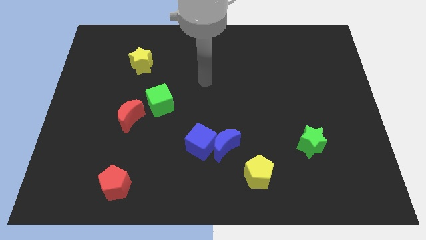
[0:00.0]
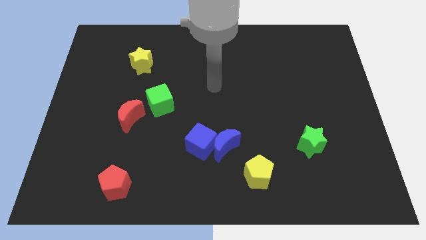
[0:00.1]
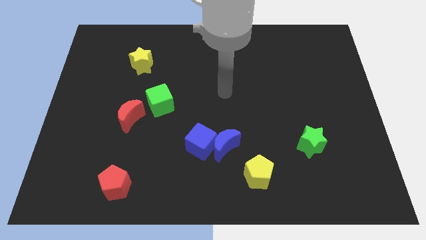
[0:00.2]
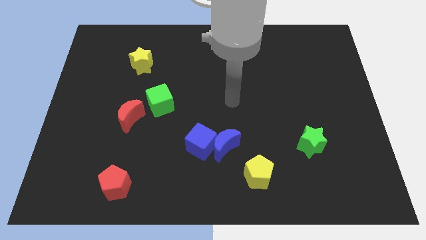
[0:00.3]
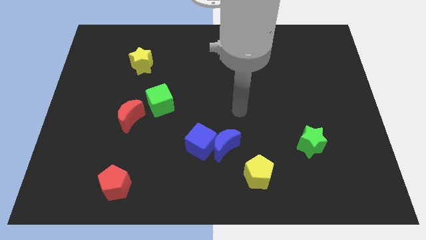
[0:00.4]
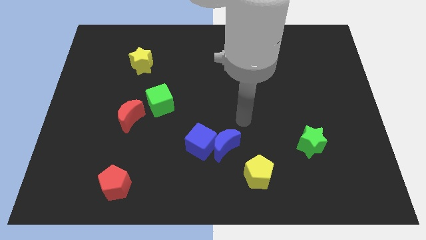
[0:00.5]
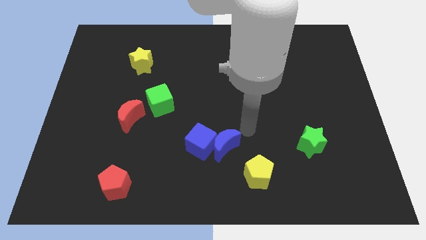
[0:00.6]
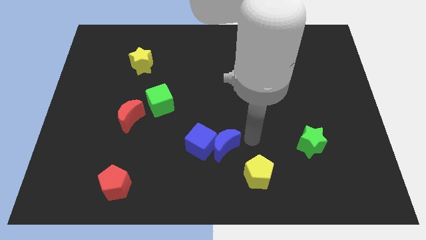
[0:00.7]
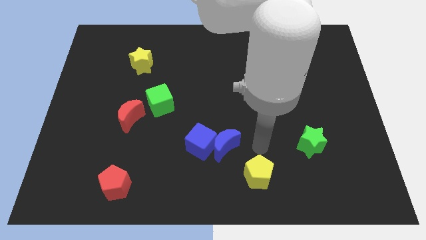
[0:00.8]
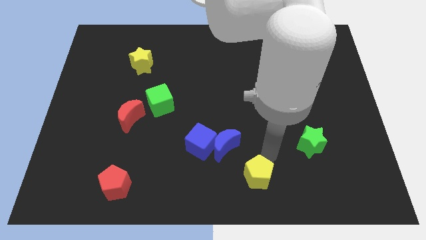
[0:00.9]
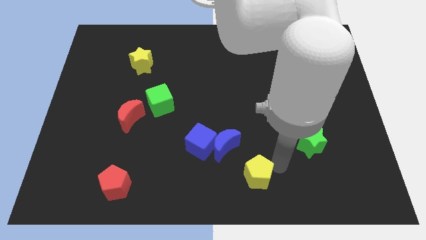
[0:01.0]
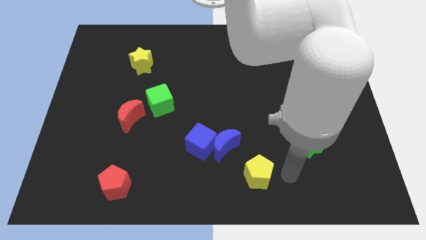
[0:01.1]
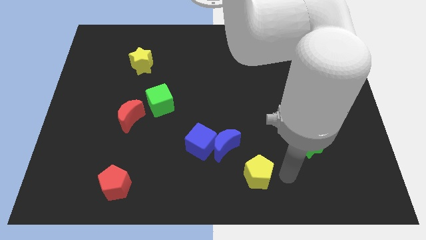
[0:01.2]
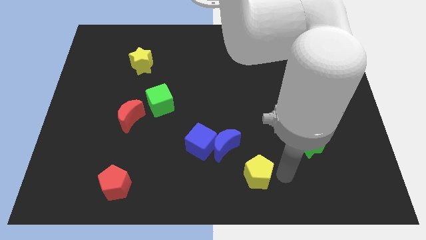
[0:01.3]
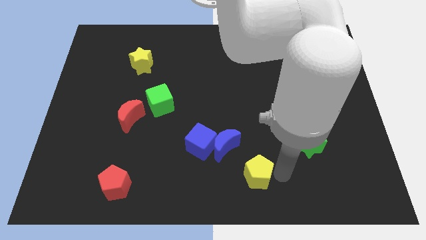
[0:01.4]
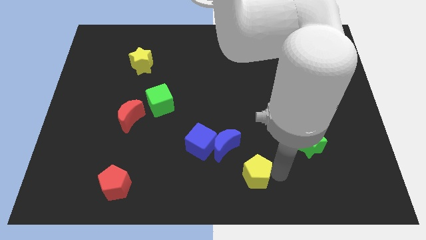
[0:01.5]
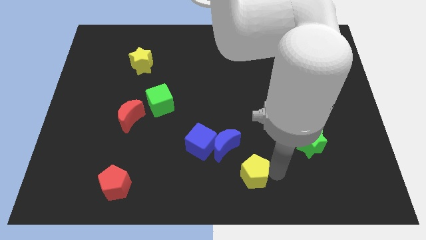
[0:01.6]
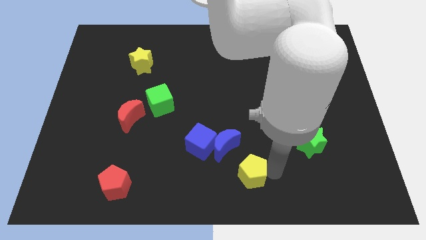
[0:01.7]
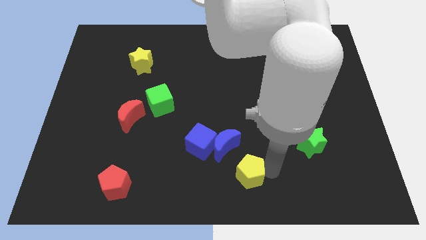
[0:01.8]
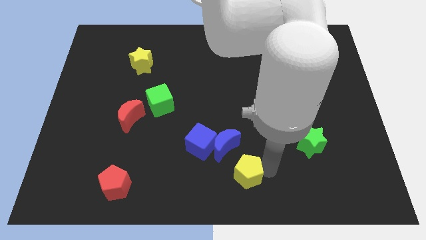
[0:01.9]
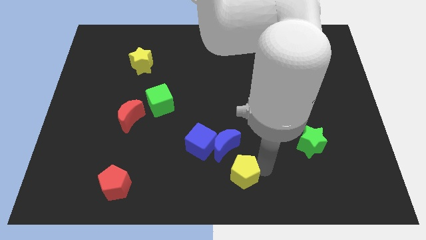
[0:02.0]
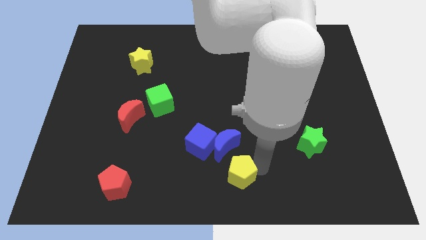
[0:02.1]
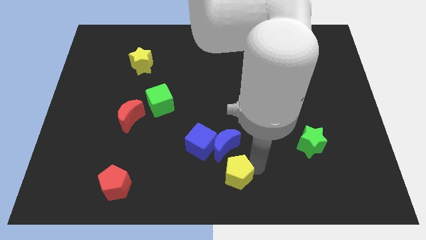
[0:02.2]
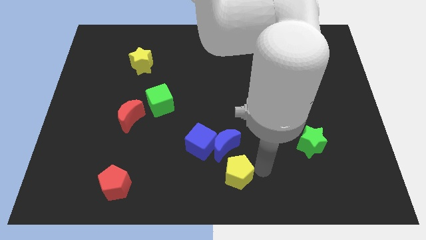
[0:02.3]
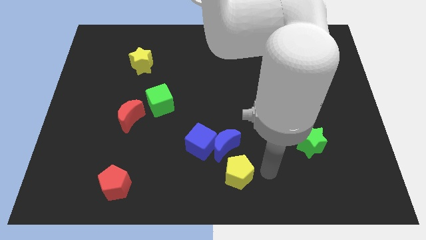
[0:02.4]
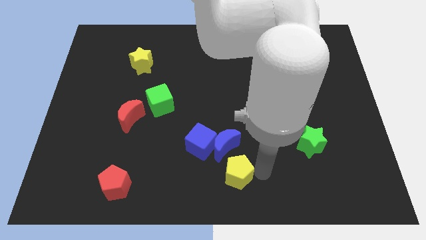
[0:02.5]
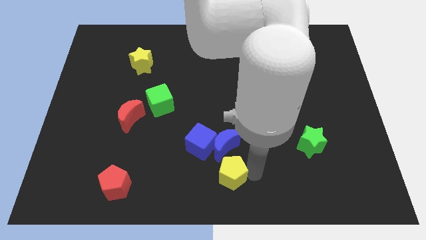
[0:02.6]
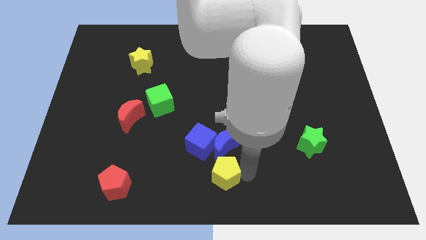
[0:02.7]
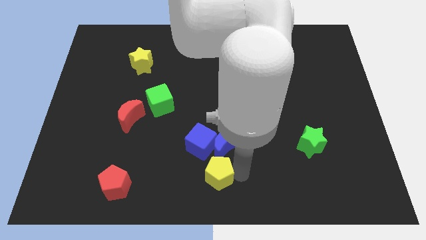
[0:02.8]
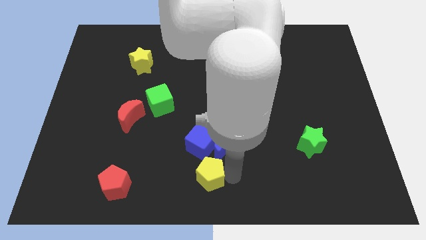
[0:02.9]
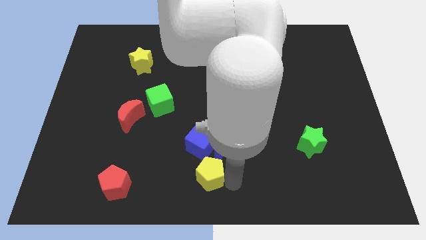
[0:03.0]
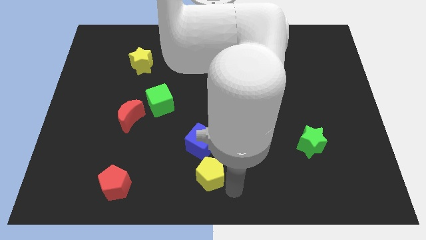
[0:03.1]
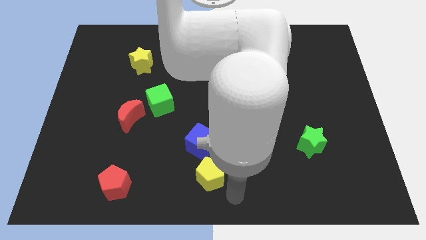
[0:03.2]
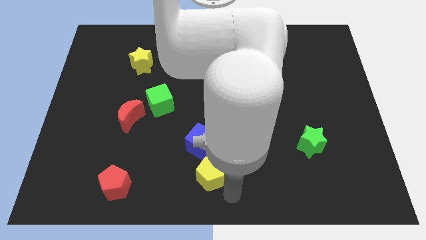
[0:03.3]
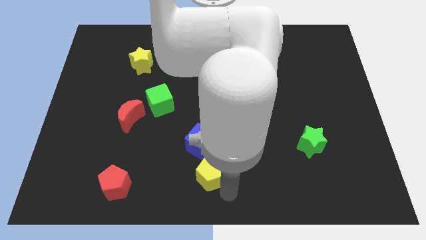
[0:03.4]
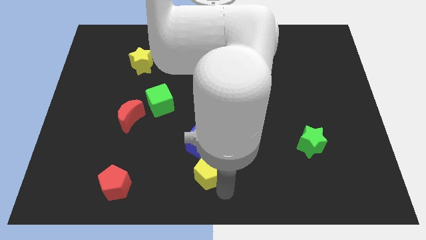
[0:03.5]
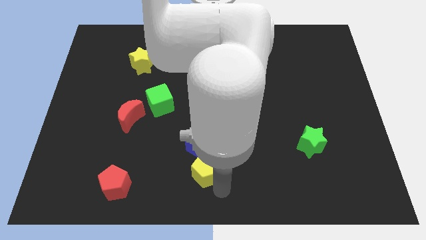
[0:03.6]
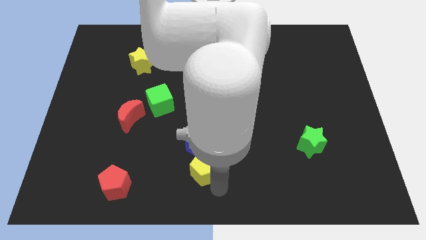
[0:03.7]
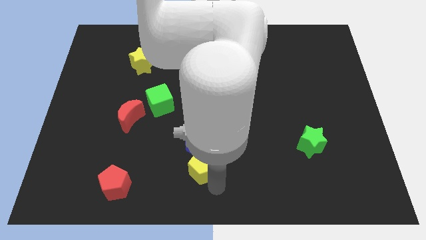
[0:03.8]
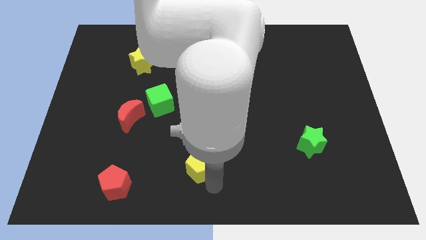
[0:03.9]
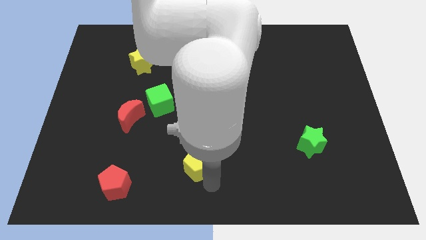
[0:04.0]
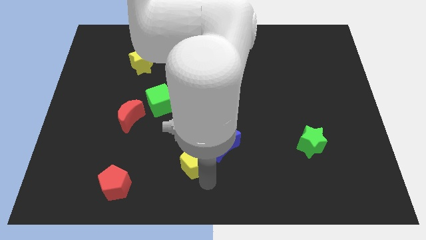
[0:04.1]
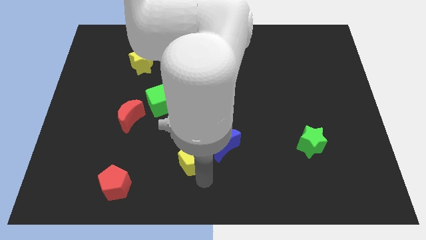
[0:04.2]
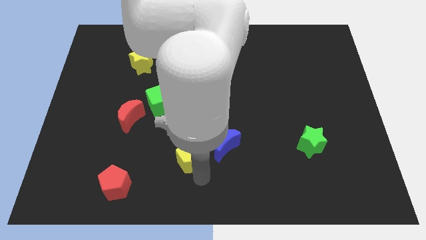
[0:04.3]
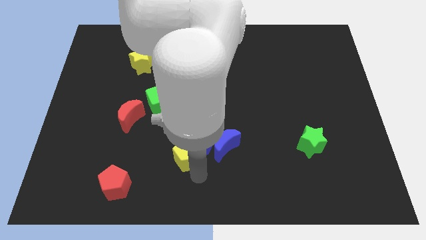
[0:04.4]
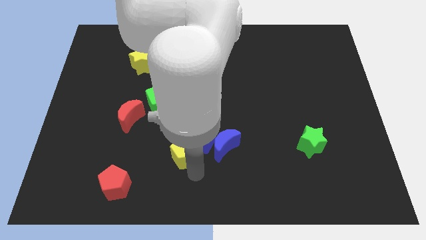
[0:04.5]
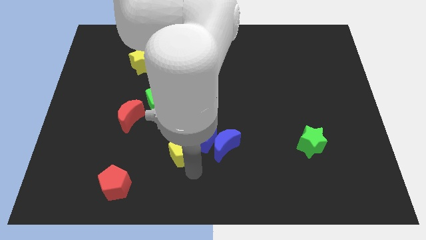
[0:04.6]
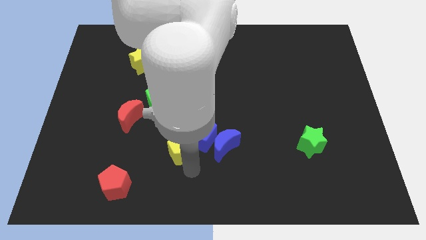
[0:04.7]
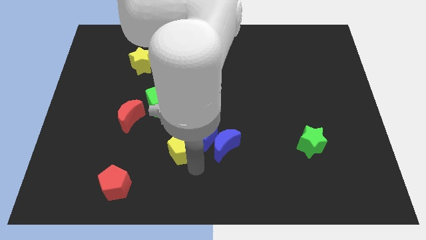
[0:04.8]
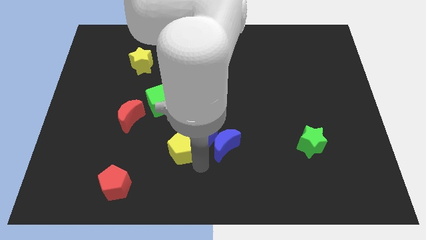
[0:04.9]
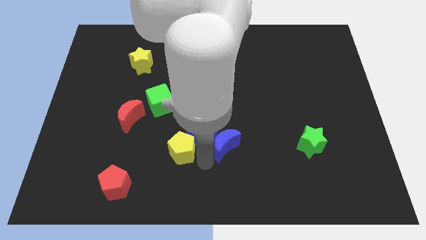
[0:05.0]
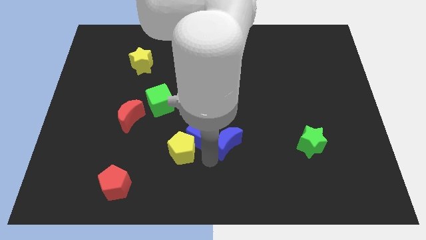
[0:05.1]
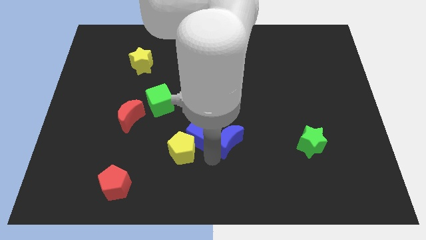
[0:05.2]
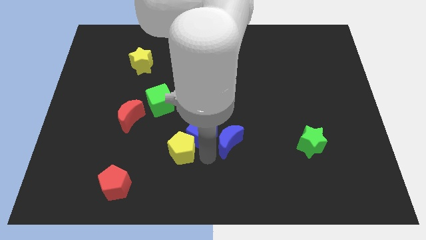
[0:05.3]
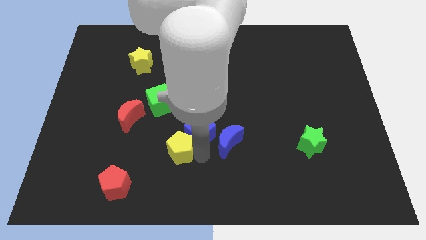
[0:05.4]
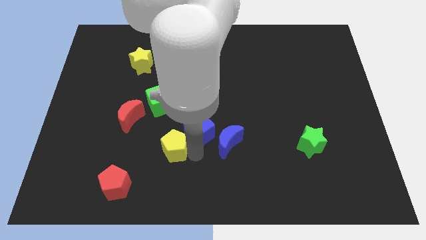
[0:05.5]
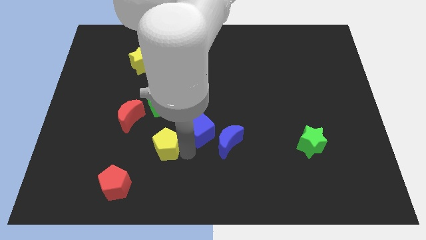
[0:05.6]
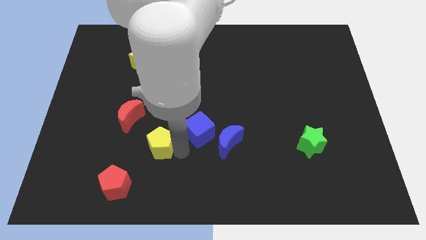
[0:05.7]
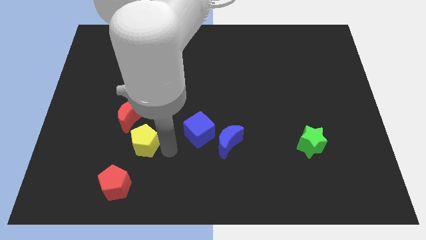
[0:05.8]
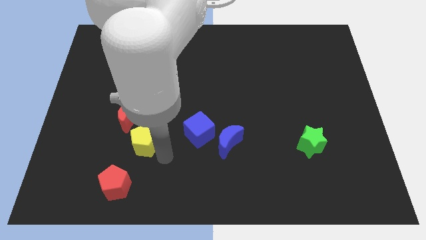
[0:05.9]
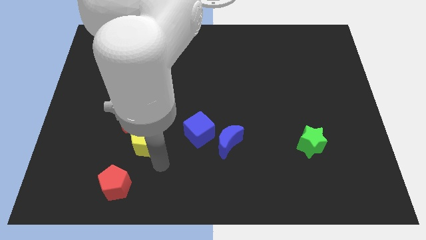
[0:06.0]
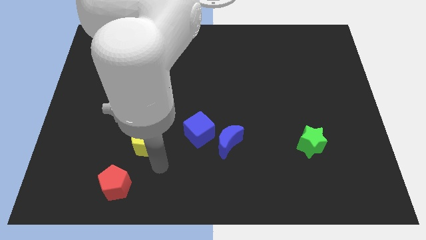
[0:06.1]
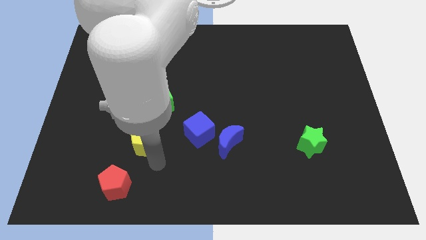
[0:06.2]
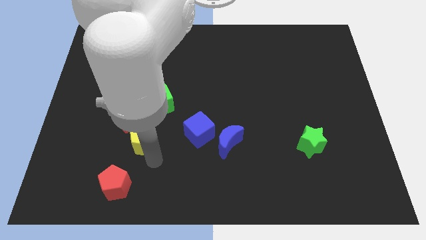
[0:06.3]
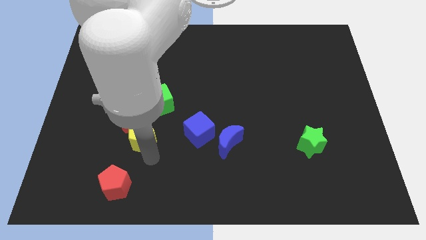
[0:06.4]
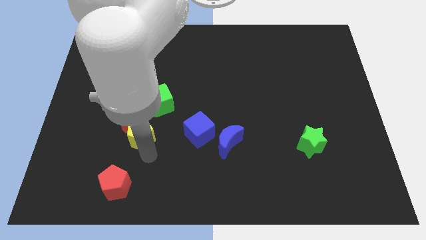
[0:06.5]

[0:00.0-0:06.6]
push the yellow pentagon next to the red moon

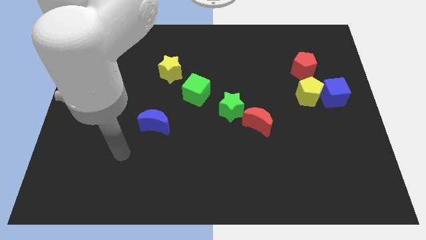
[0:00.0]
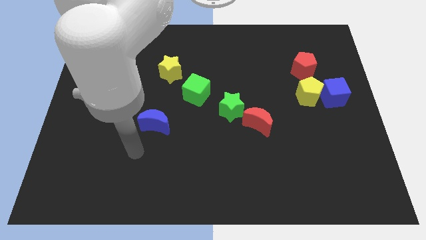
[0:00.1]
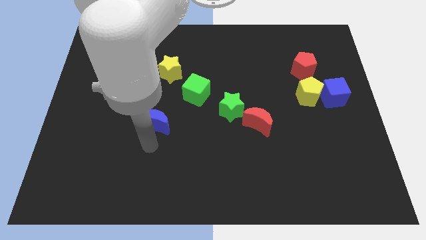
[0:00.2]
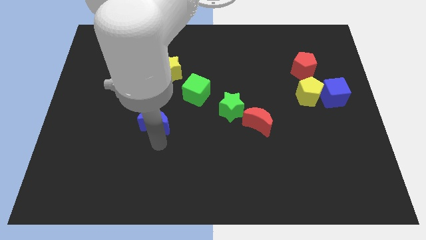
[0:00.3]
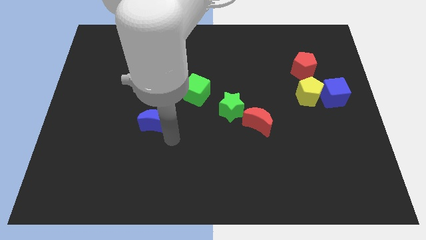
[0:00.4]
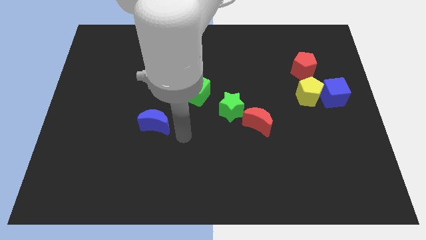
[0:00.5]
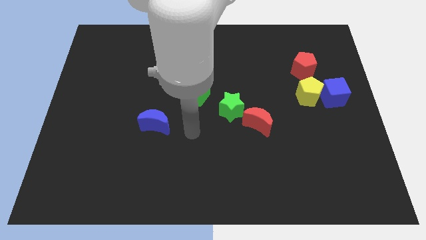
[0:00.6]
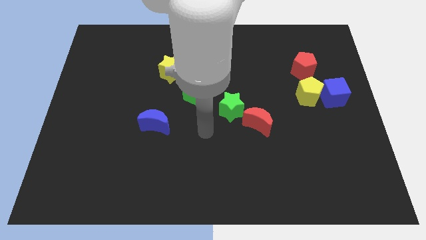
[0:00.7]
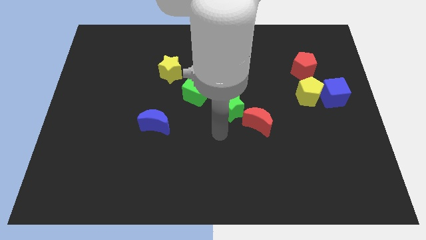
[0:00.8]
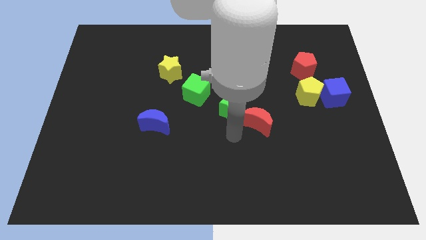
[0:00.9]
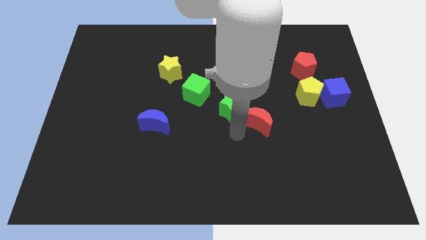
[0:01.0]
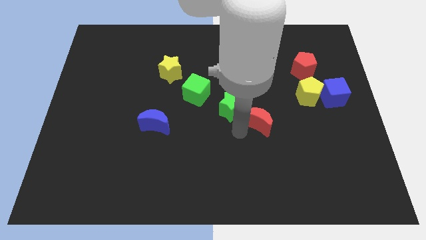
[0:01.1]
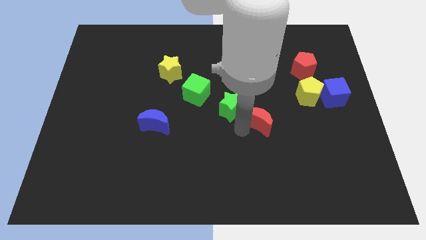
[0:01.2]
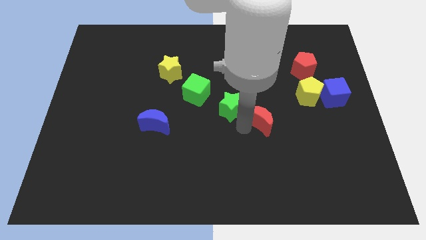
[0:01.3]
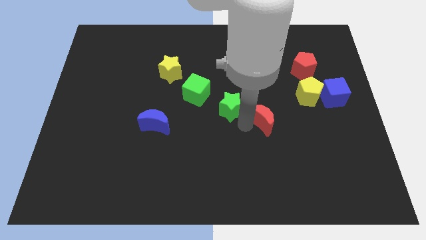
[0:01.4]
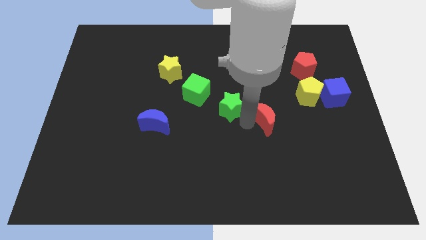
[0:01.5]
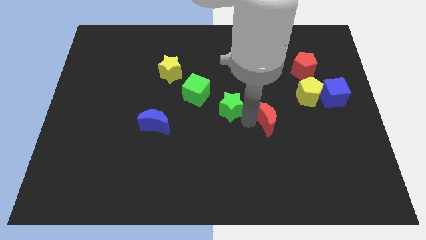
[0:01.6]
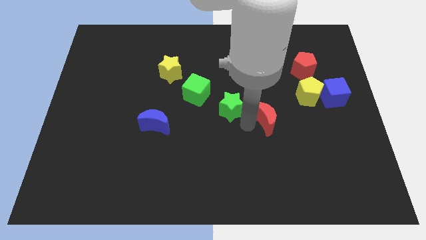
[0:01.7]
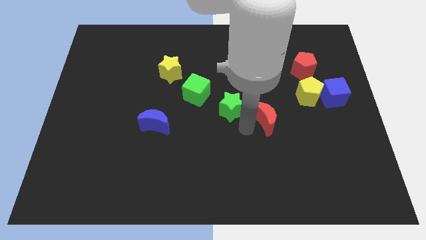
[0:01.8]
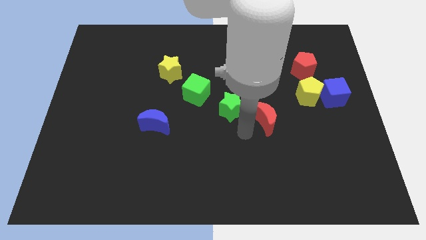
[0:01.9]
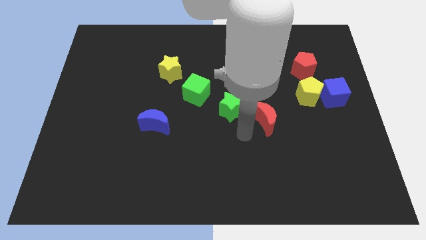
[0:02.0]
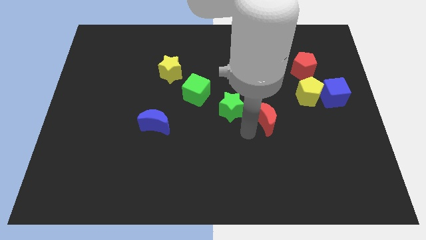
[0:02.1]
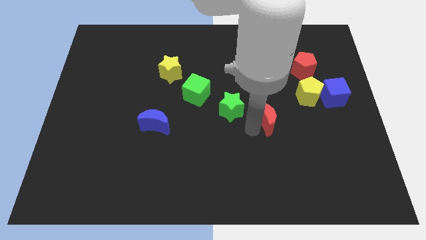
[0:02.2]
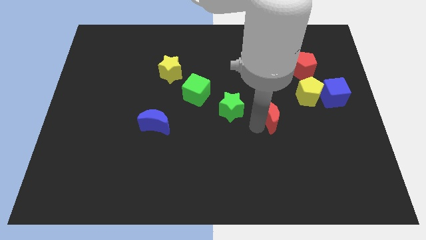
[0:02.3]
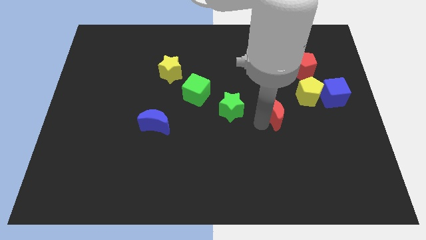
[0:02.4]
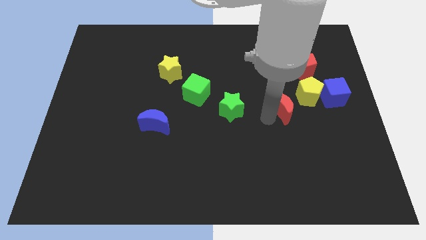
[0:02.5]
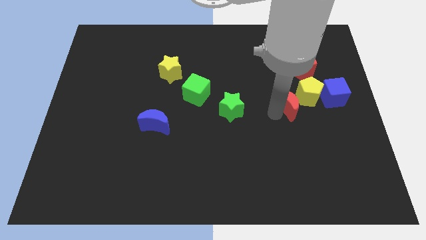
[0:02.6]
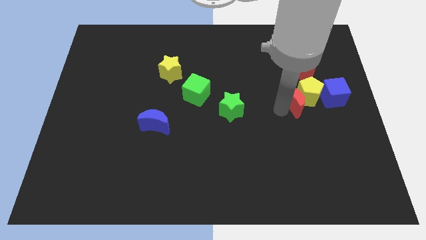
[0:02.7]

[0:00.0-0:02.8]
slide the red moon towards the yellow pentagon
